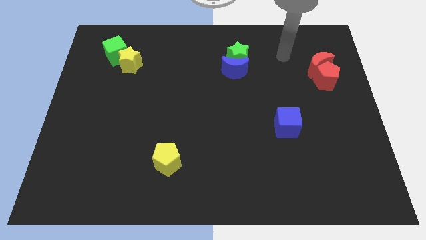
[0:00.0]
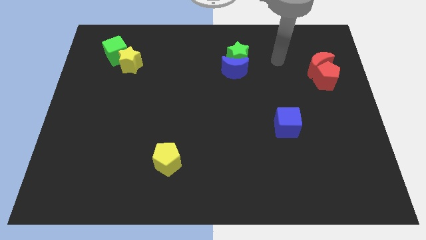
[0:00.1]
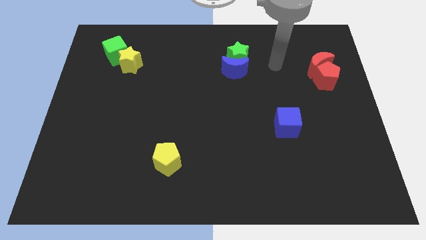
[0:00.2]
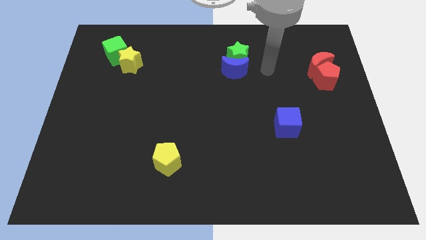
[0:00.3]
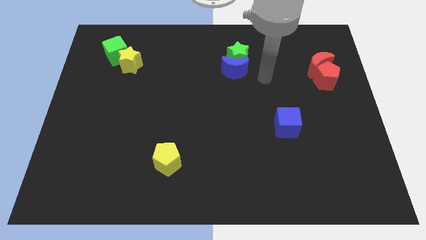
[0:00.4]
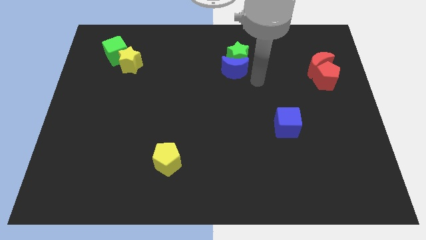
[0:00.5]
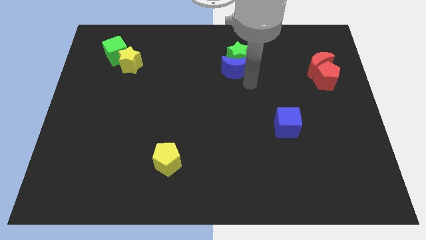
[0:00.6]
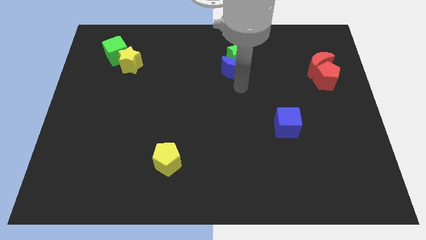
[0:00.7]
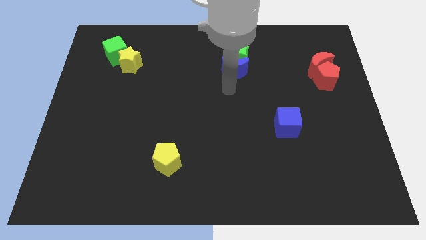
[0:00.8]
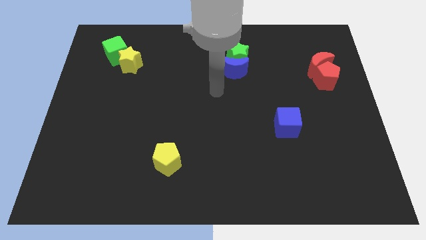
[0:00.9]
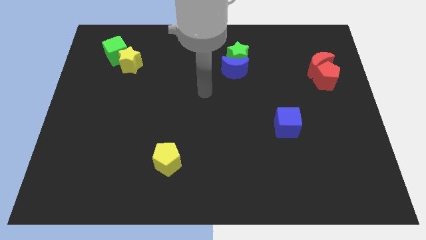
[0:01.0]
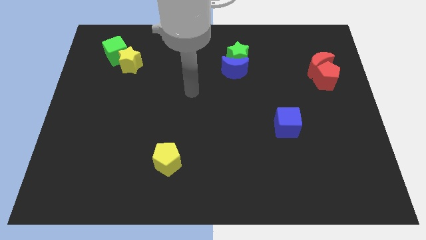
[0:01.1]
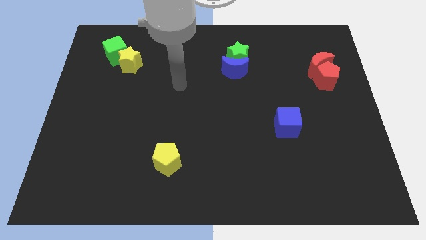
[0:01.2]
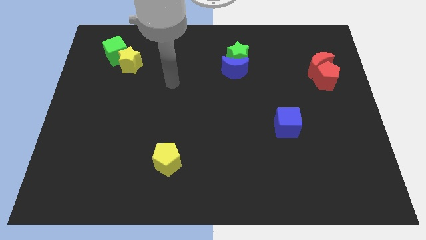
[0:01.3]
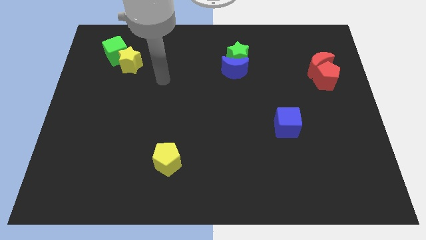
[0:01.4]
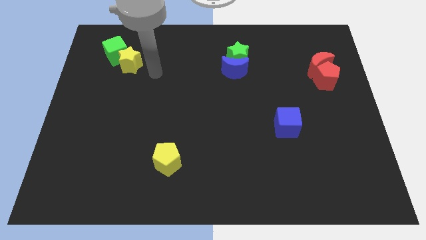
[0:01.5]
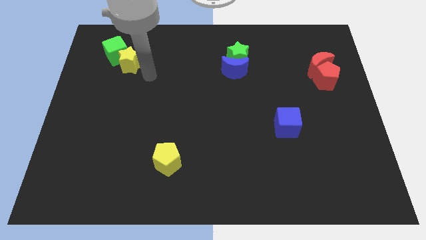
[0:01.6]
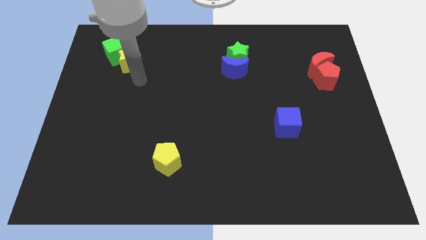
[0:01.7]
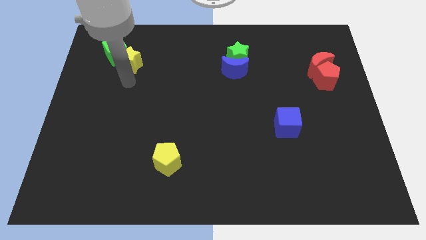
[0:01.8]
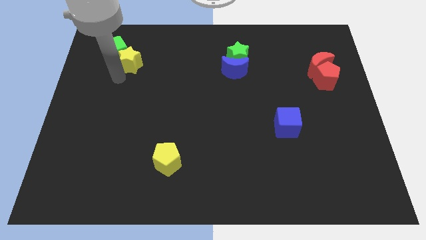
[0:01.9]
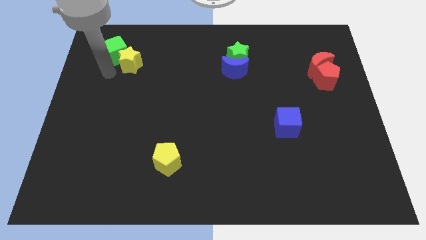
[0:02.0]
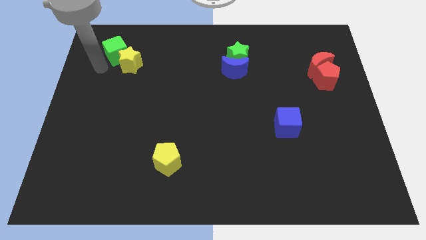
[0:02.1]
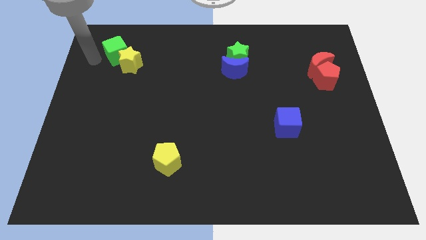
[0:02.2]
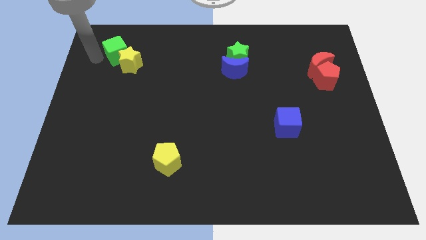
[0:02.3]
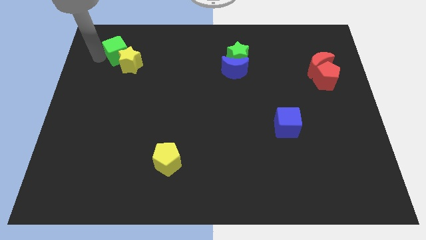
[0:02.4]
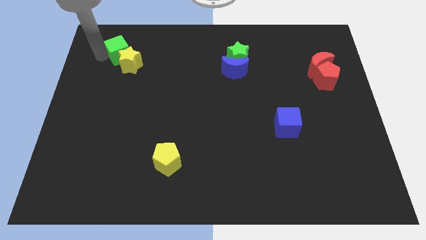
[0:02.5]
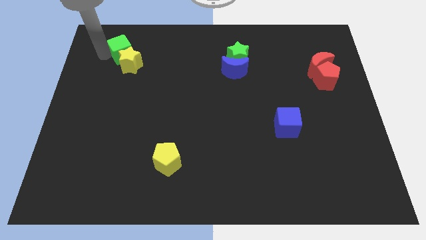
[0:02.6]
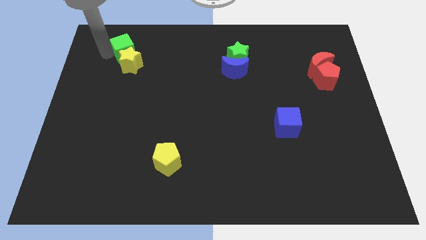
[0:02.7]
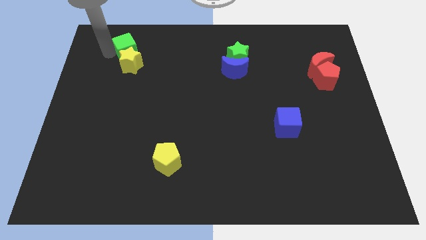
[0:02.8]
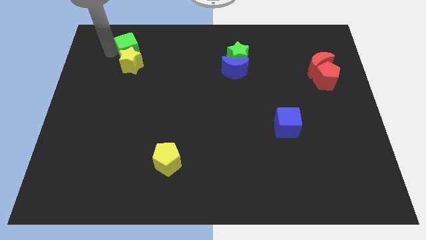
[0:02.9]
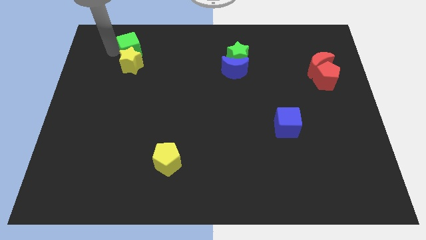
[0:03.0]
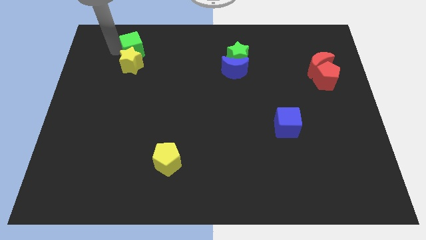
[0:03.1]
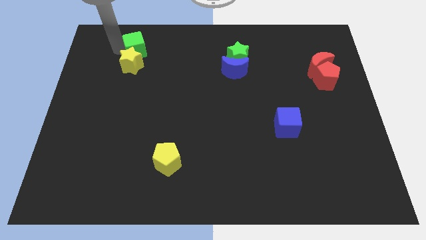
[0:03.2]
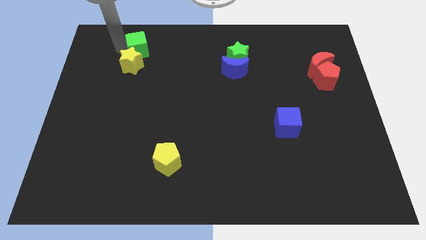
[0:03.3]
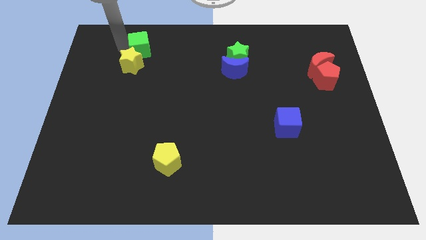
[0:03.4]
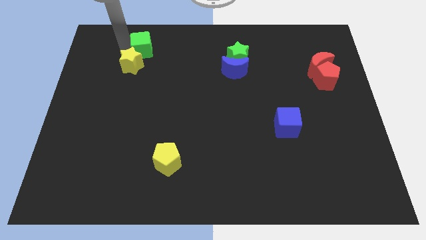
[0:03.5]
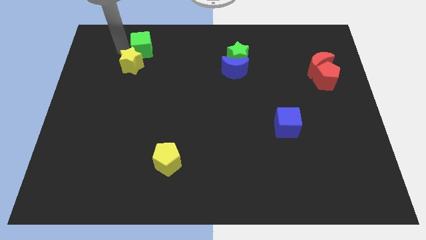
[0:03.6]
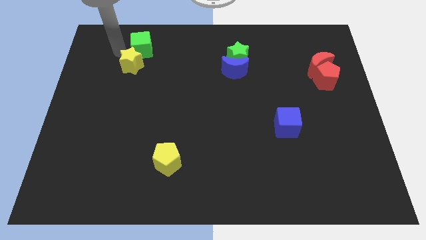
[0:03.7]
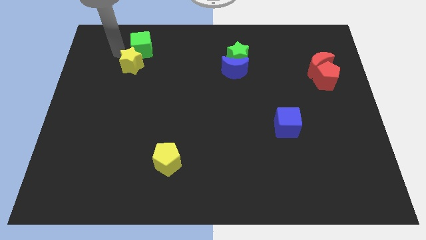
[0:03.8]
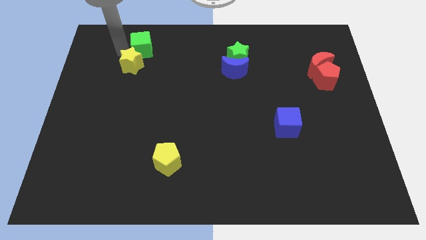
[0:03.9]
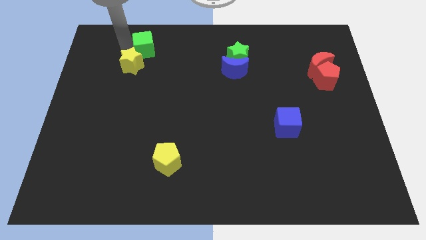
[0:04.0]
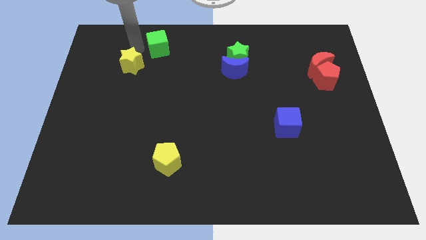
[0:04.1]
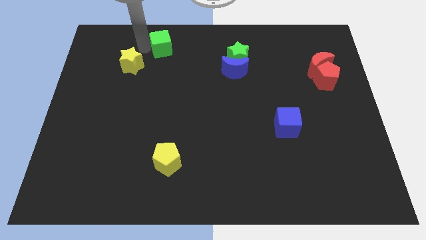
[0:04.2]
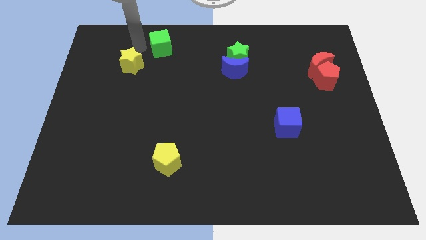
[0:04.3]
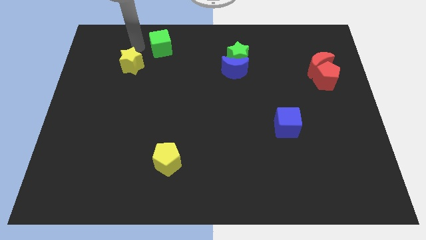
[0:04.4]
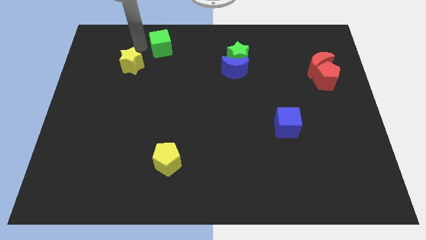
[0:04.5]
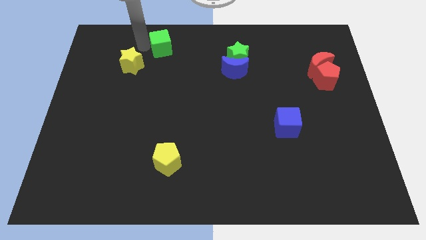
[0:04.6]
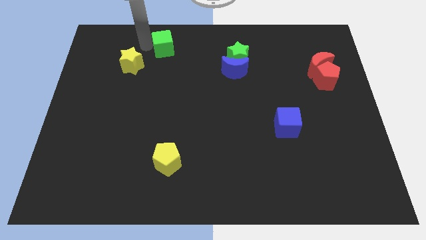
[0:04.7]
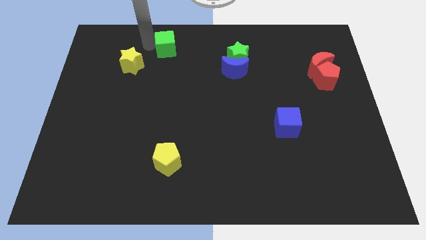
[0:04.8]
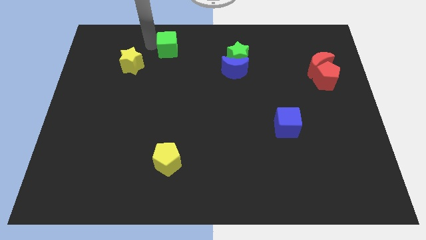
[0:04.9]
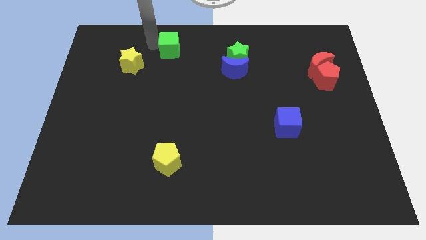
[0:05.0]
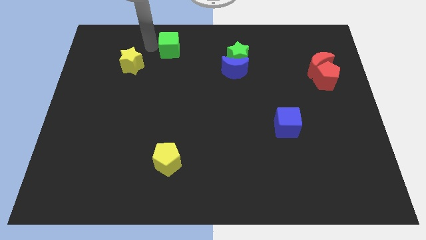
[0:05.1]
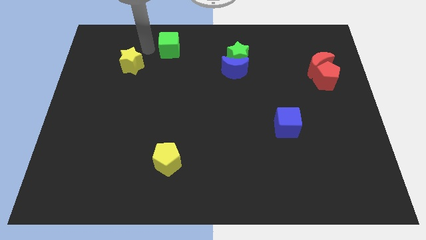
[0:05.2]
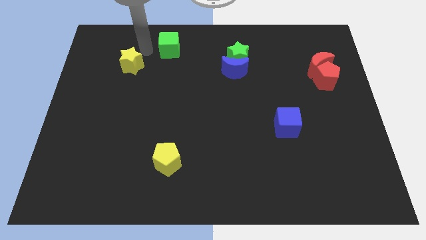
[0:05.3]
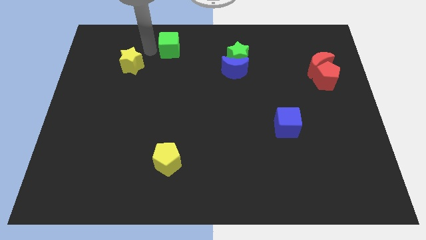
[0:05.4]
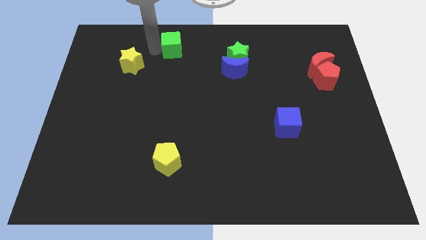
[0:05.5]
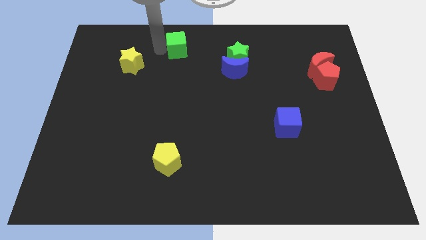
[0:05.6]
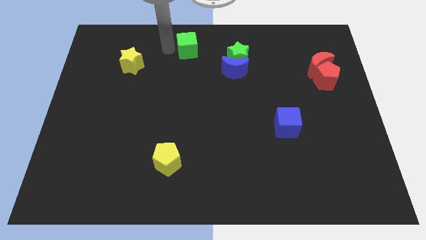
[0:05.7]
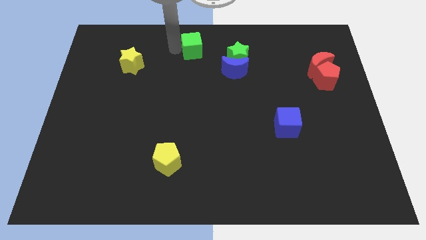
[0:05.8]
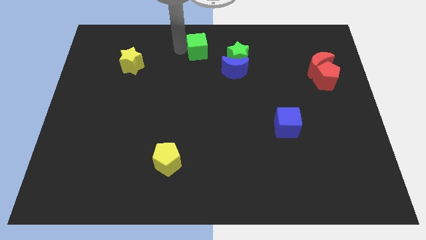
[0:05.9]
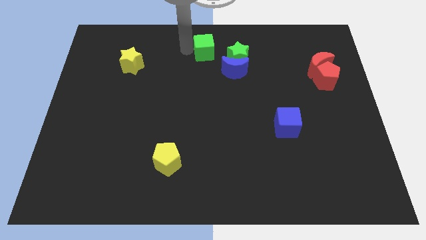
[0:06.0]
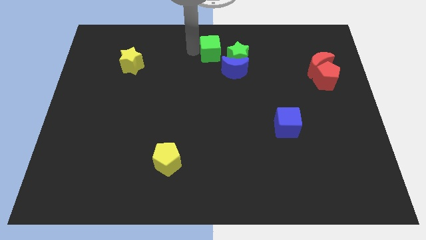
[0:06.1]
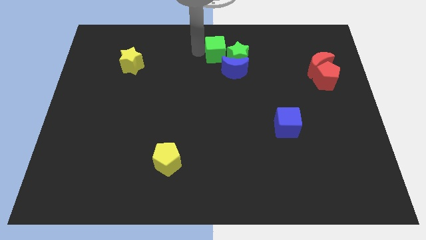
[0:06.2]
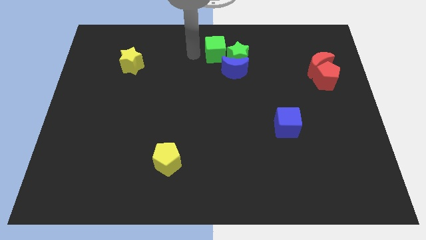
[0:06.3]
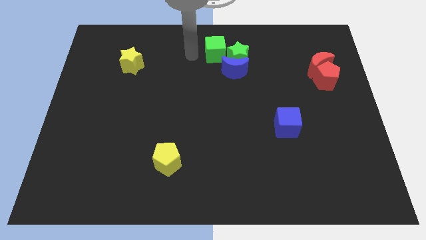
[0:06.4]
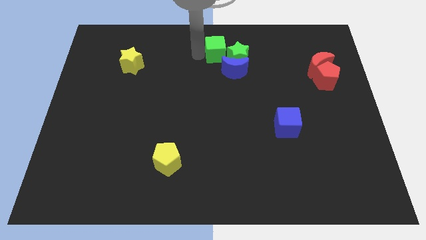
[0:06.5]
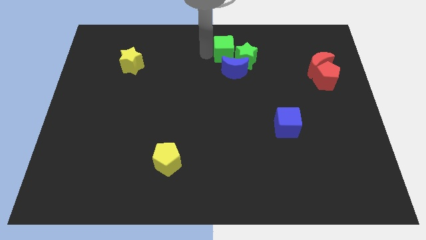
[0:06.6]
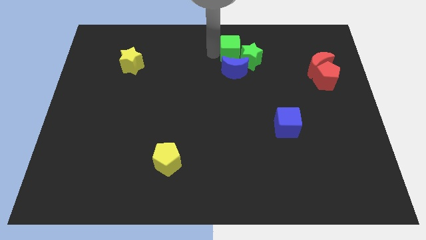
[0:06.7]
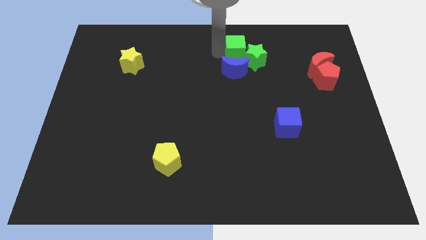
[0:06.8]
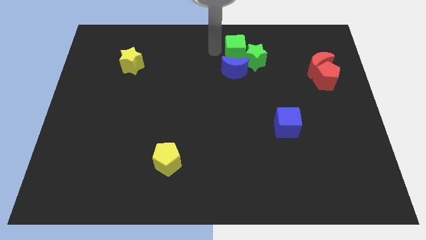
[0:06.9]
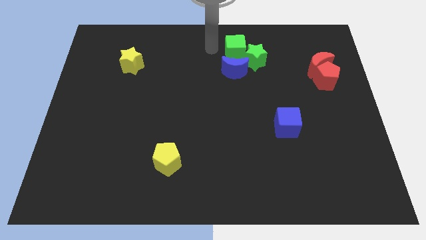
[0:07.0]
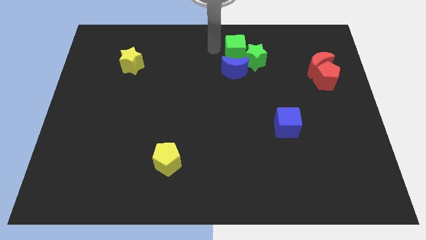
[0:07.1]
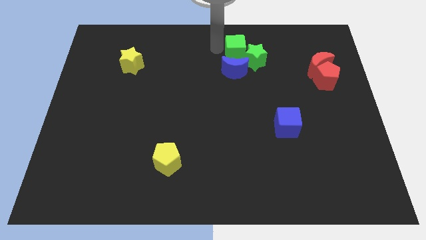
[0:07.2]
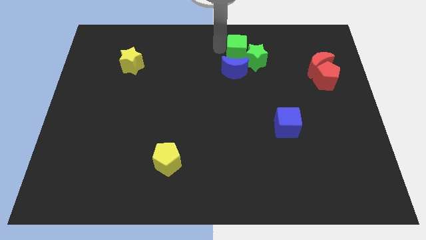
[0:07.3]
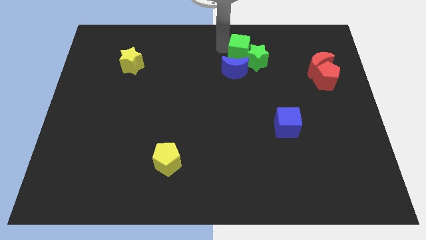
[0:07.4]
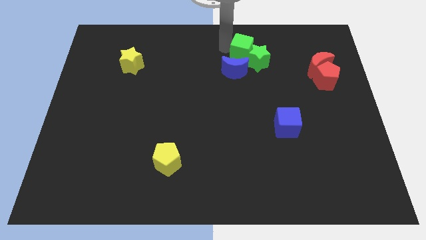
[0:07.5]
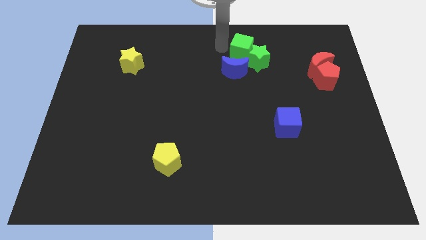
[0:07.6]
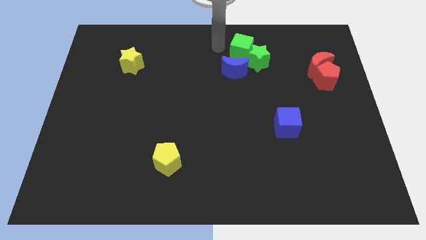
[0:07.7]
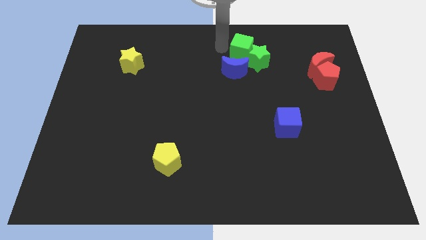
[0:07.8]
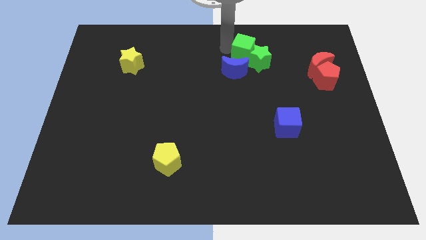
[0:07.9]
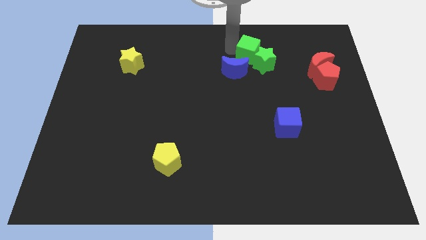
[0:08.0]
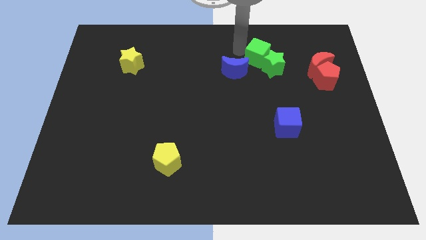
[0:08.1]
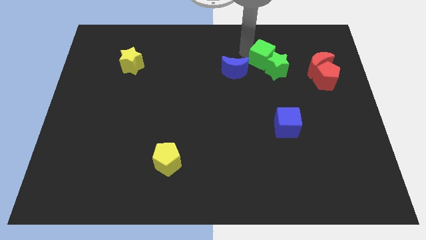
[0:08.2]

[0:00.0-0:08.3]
push the green cube to the left side of the red moon
